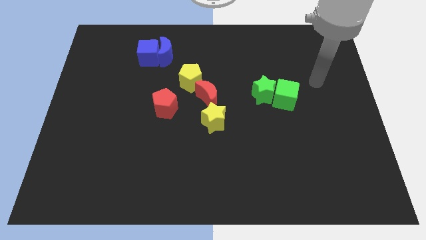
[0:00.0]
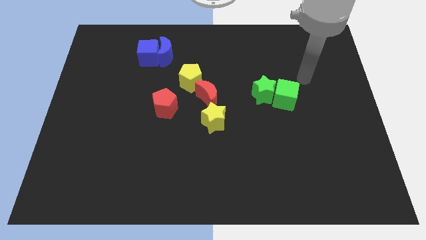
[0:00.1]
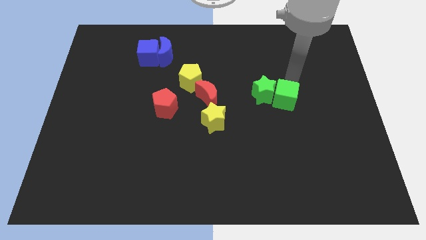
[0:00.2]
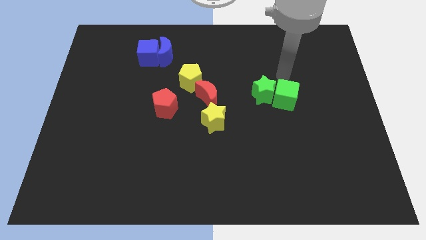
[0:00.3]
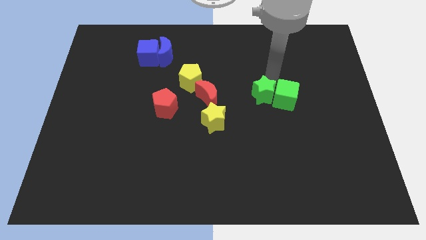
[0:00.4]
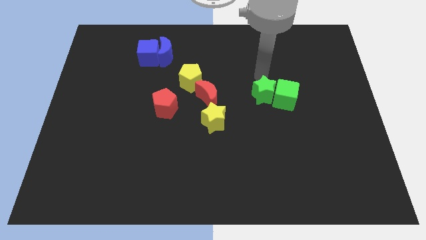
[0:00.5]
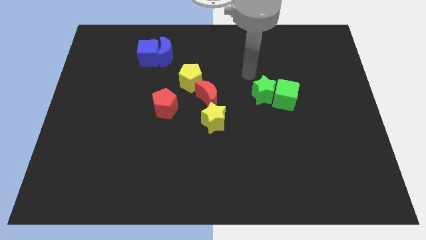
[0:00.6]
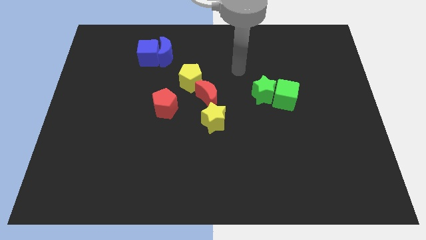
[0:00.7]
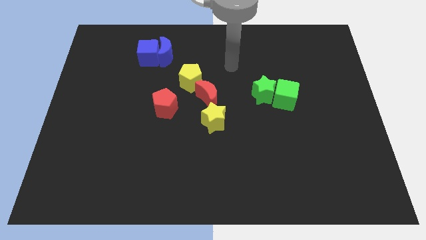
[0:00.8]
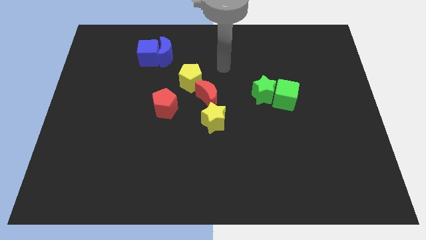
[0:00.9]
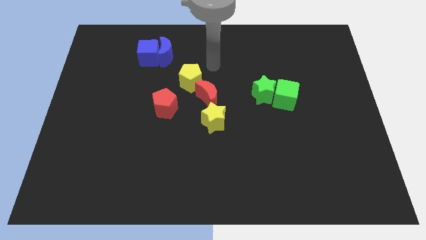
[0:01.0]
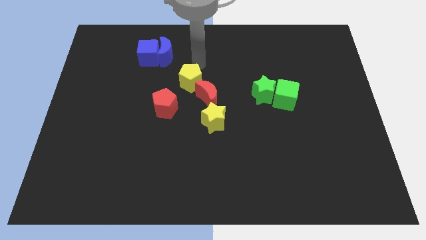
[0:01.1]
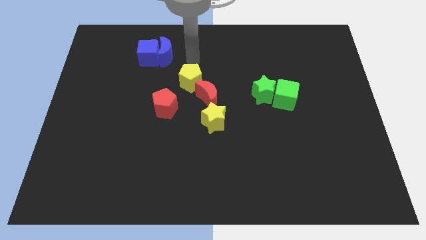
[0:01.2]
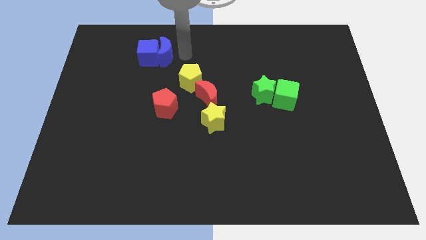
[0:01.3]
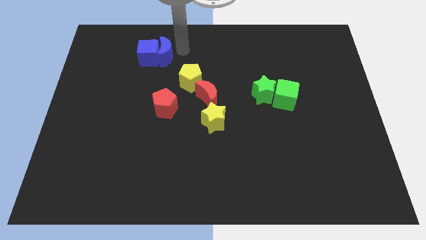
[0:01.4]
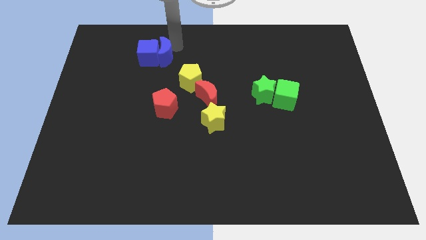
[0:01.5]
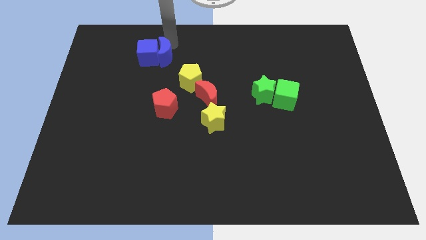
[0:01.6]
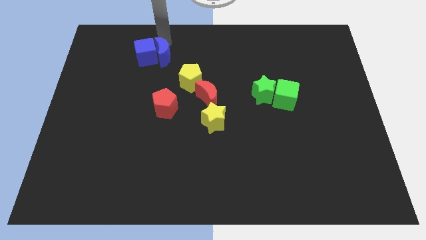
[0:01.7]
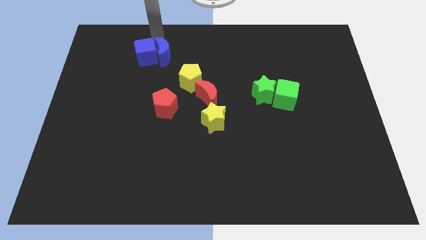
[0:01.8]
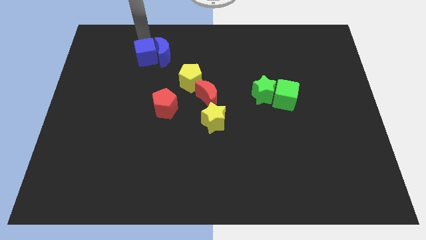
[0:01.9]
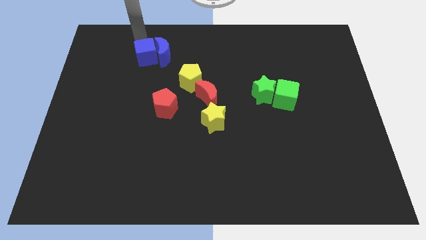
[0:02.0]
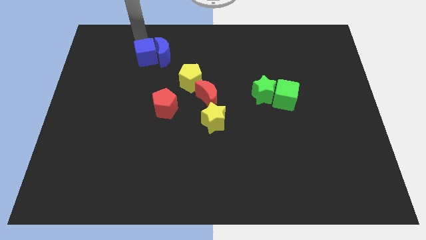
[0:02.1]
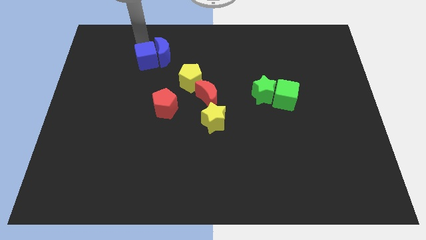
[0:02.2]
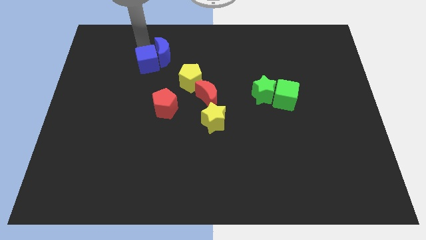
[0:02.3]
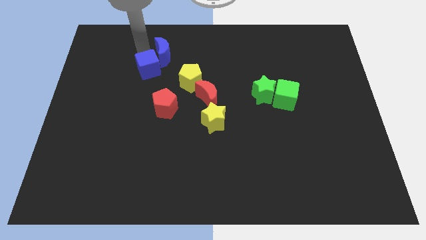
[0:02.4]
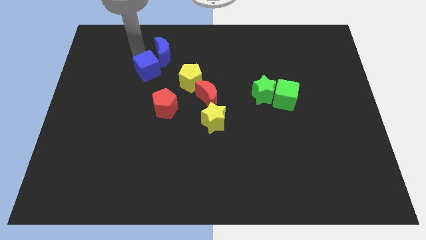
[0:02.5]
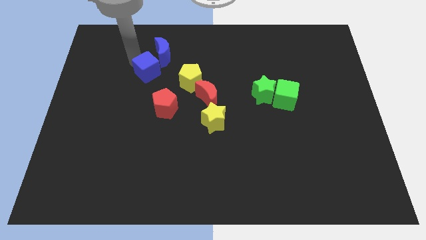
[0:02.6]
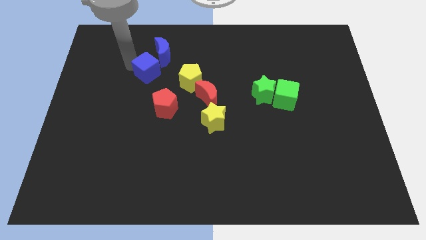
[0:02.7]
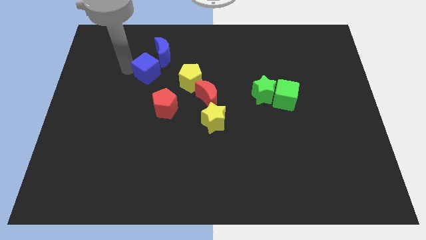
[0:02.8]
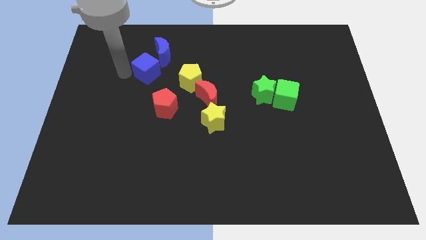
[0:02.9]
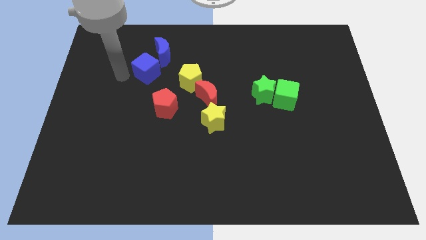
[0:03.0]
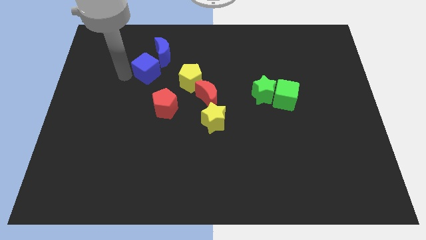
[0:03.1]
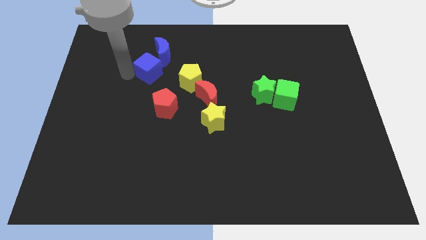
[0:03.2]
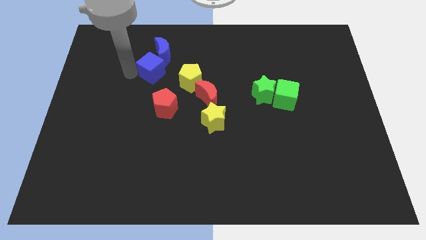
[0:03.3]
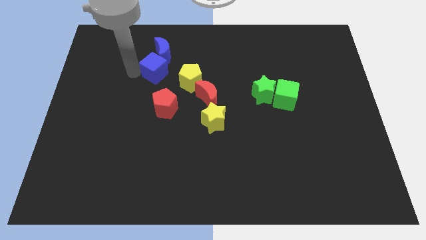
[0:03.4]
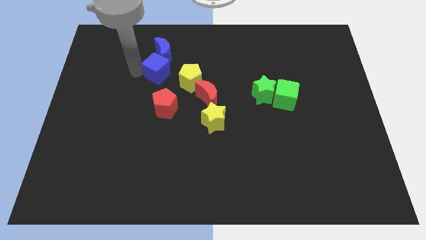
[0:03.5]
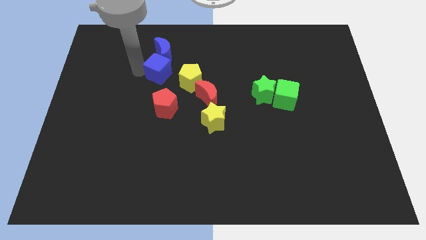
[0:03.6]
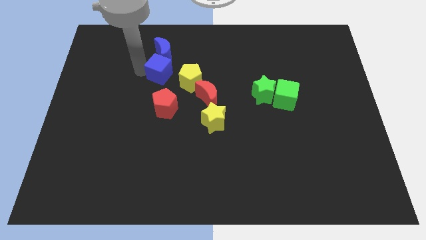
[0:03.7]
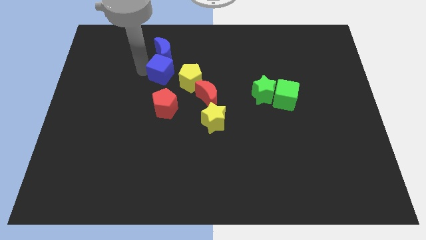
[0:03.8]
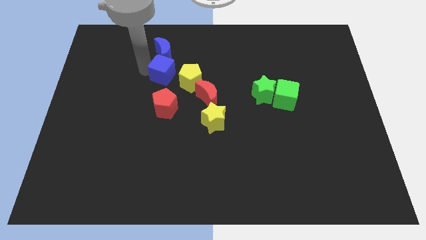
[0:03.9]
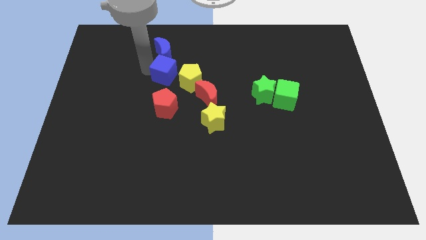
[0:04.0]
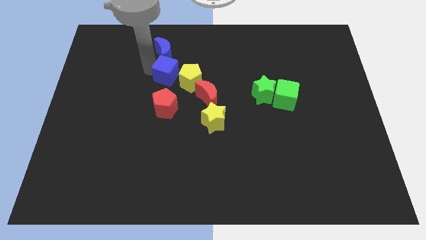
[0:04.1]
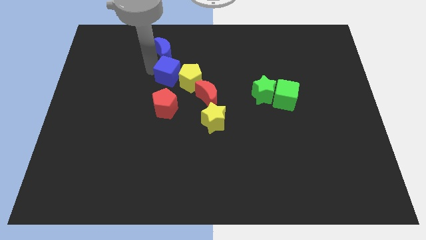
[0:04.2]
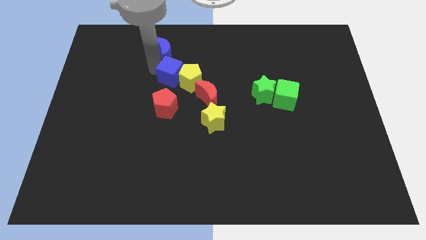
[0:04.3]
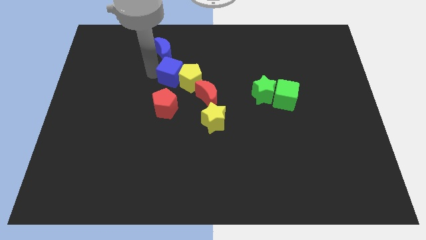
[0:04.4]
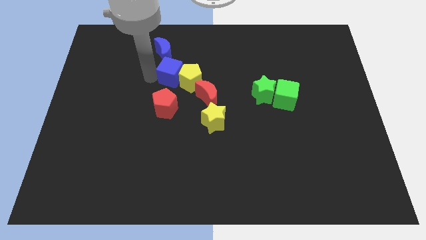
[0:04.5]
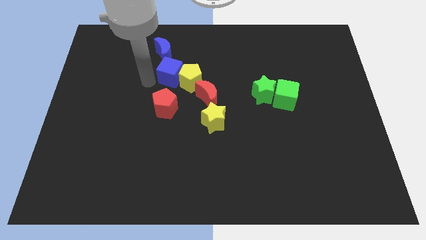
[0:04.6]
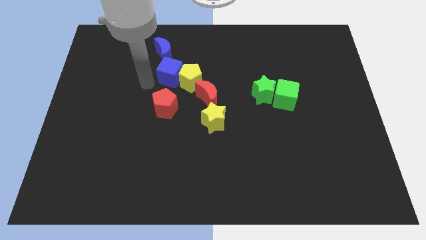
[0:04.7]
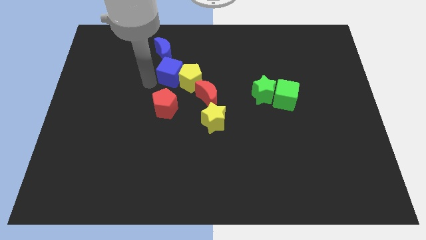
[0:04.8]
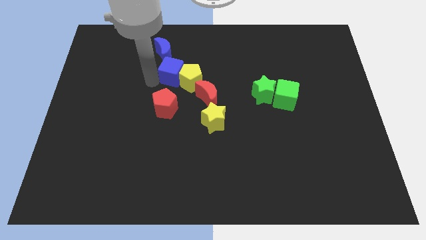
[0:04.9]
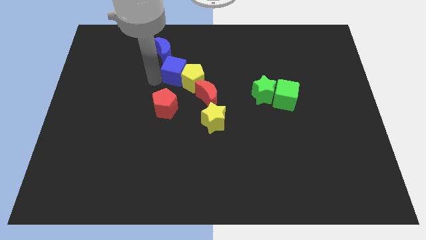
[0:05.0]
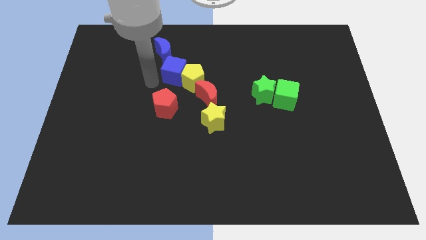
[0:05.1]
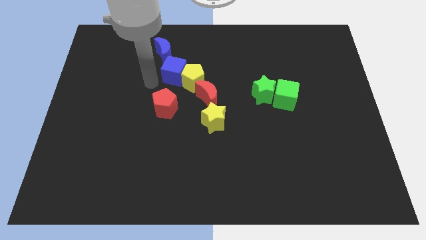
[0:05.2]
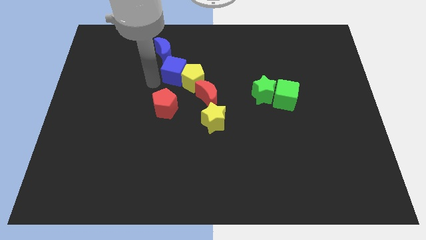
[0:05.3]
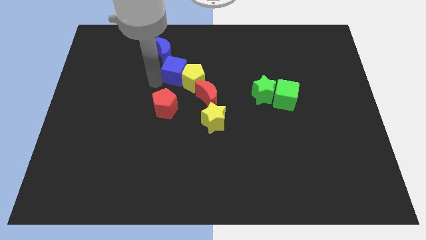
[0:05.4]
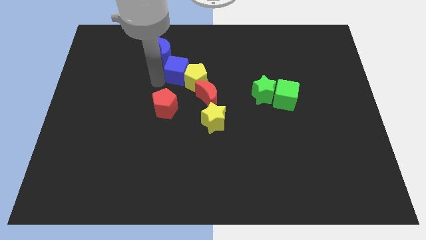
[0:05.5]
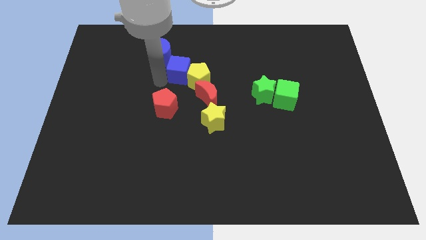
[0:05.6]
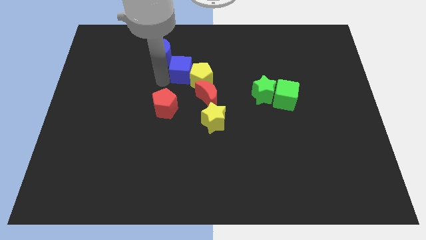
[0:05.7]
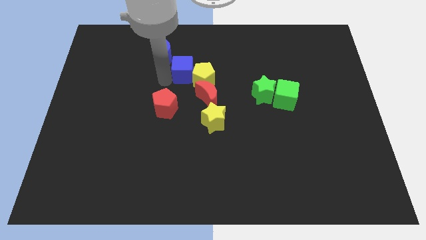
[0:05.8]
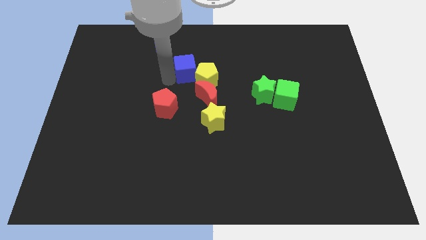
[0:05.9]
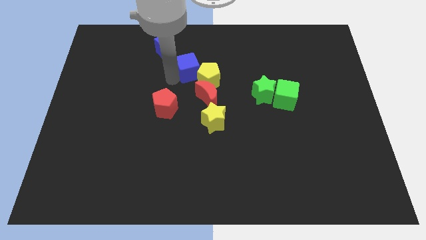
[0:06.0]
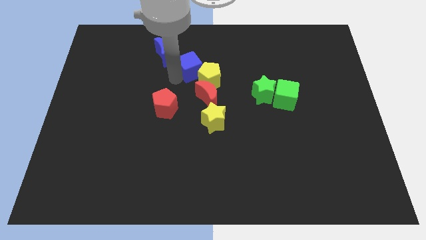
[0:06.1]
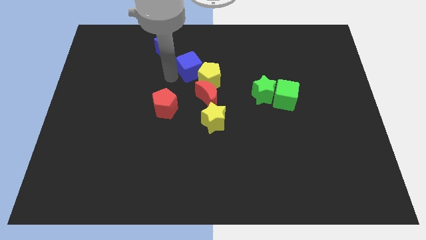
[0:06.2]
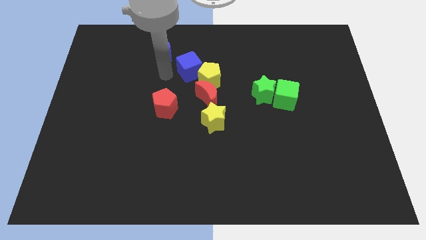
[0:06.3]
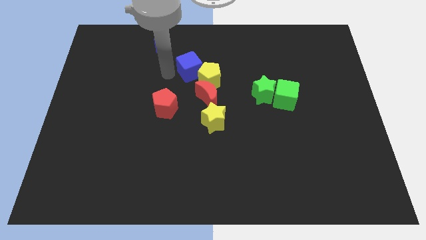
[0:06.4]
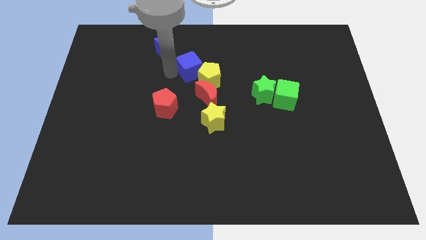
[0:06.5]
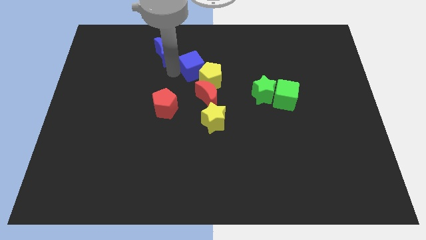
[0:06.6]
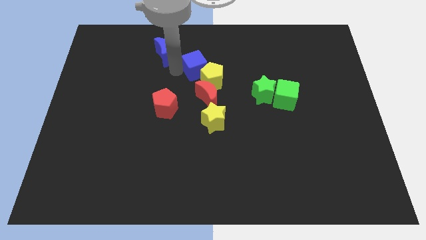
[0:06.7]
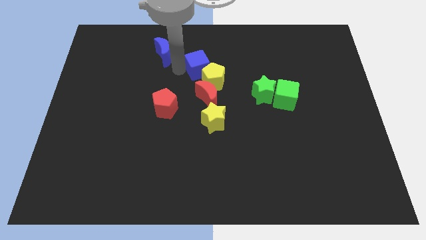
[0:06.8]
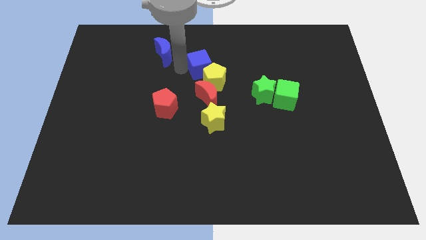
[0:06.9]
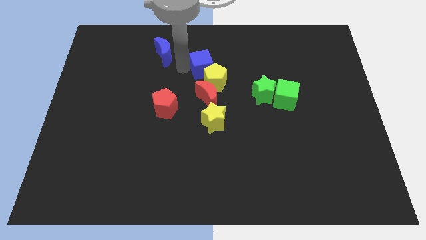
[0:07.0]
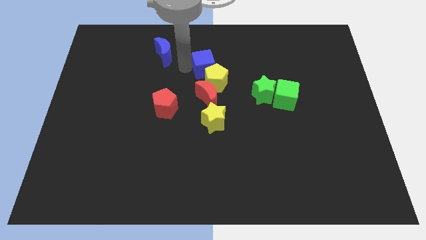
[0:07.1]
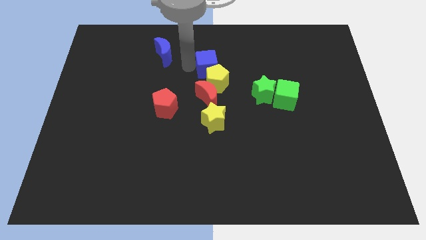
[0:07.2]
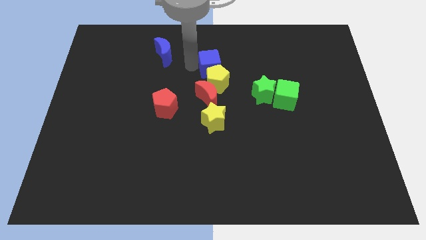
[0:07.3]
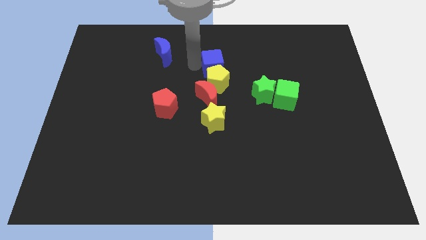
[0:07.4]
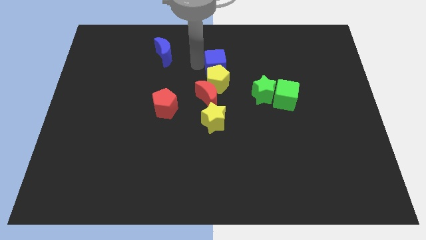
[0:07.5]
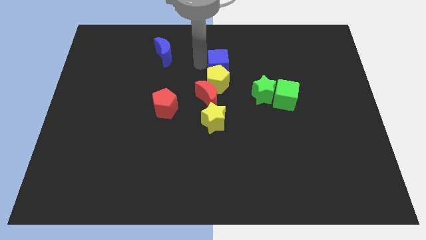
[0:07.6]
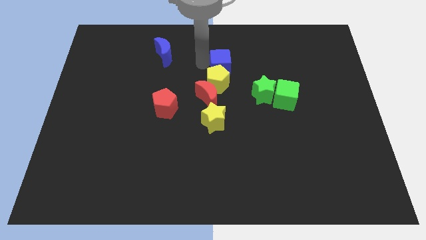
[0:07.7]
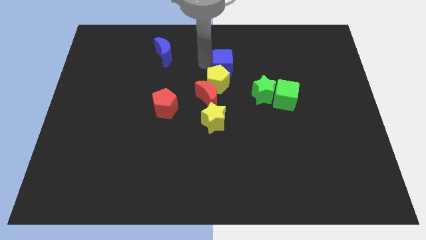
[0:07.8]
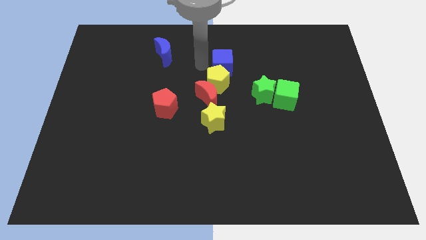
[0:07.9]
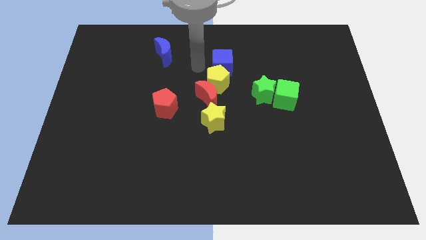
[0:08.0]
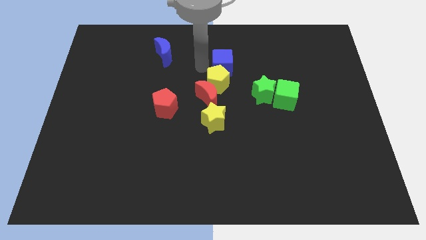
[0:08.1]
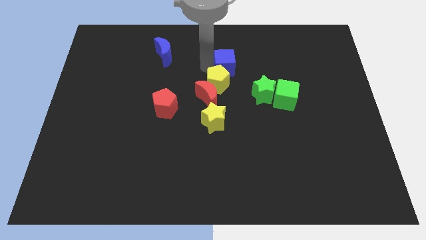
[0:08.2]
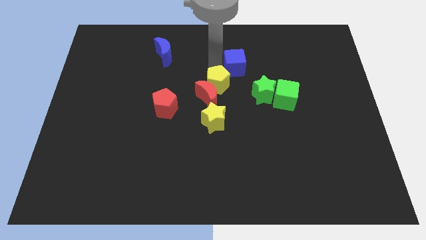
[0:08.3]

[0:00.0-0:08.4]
slide the blue cube to the right
